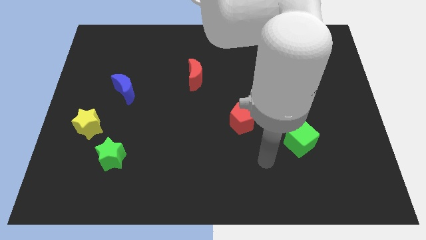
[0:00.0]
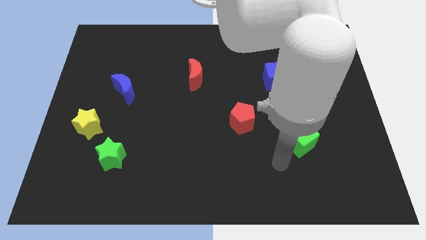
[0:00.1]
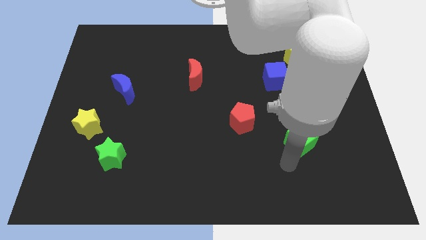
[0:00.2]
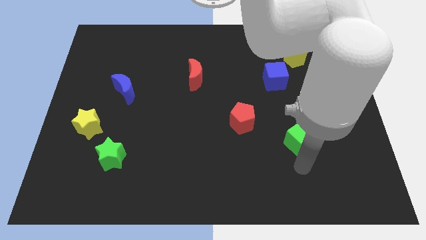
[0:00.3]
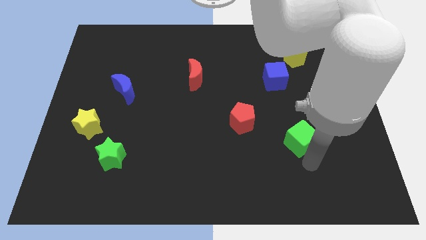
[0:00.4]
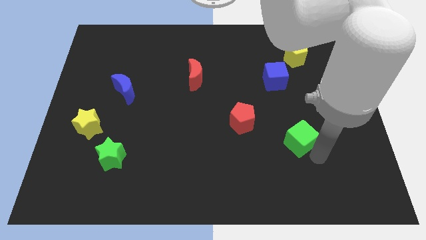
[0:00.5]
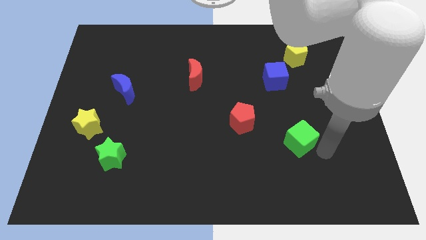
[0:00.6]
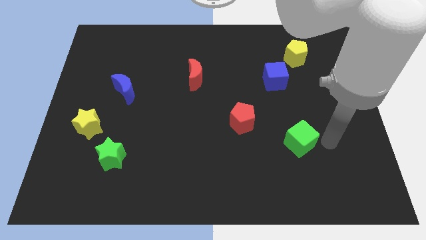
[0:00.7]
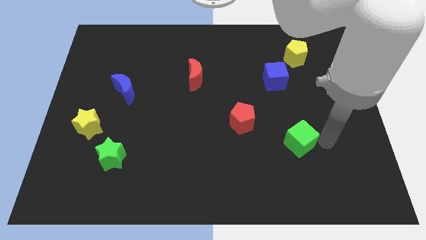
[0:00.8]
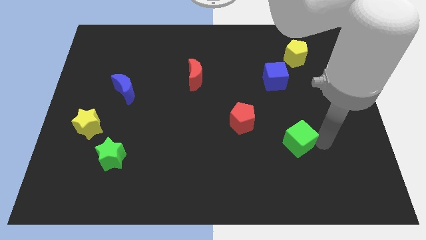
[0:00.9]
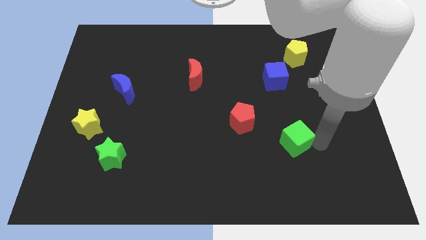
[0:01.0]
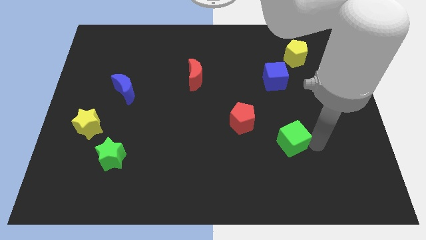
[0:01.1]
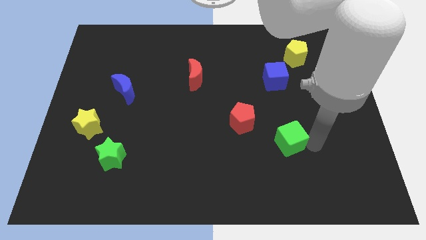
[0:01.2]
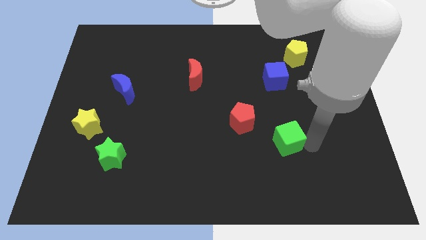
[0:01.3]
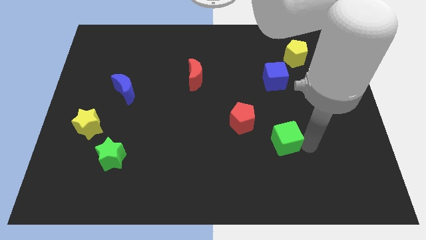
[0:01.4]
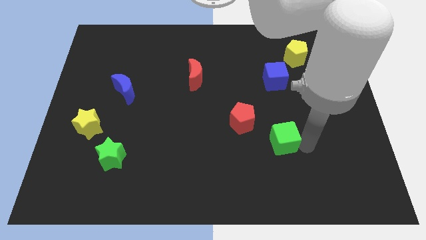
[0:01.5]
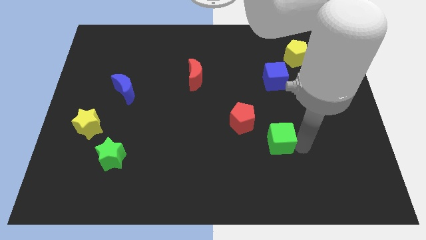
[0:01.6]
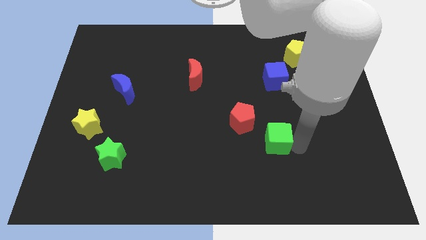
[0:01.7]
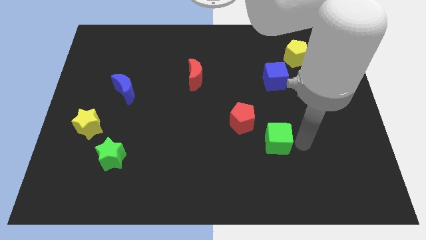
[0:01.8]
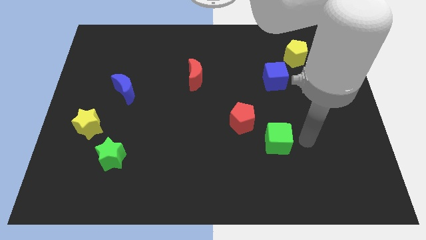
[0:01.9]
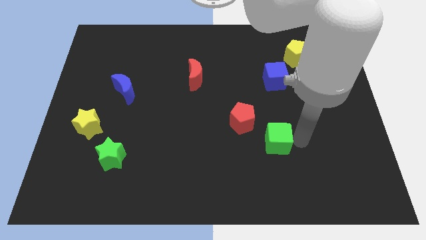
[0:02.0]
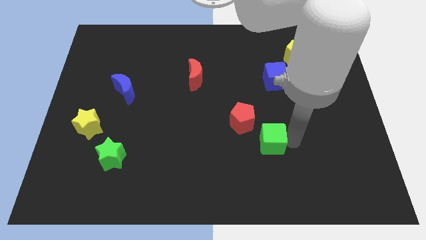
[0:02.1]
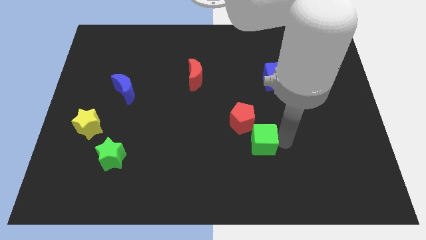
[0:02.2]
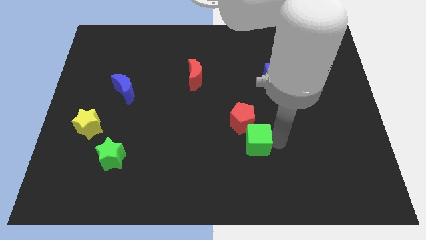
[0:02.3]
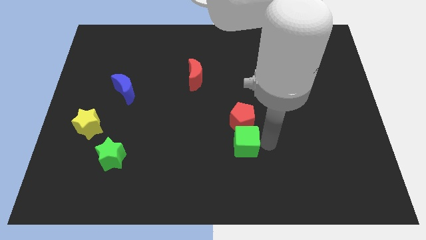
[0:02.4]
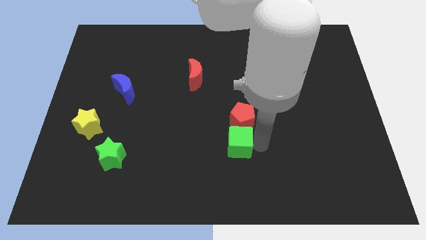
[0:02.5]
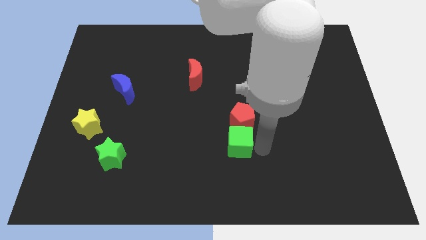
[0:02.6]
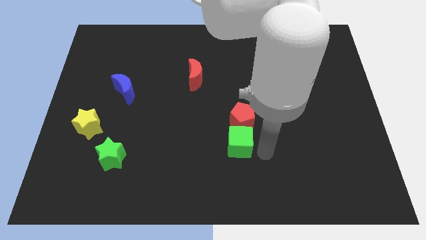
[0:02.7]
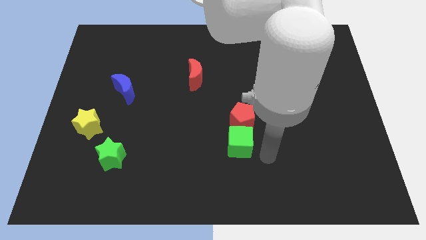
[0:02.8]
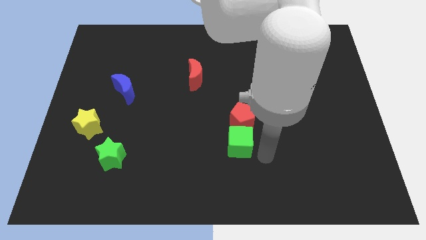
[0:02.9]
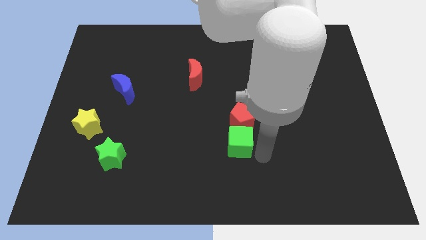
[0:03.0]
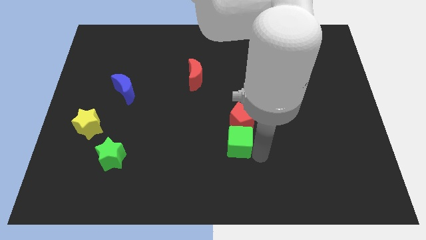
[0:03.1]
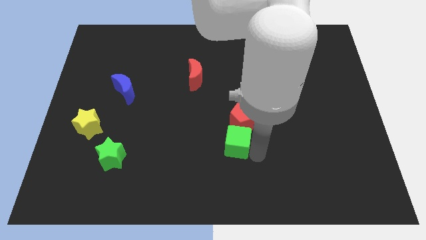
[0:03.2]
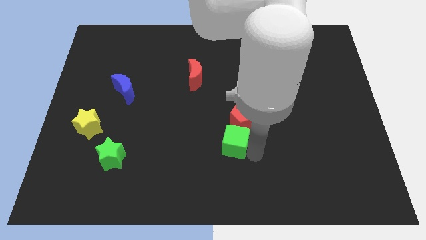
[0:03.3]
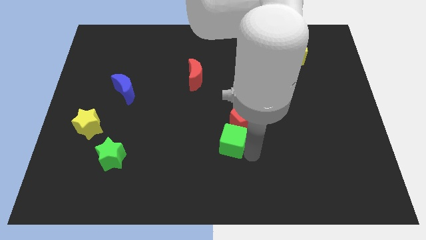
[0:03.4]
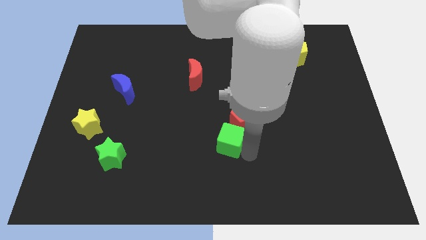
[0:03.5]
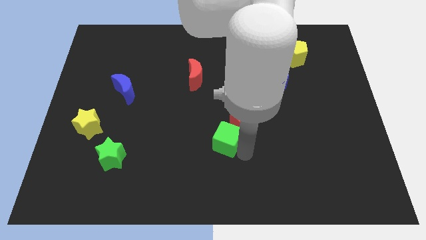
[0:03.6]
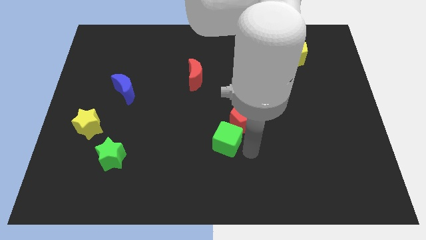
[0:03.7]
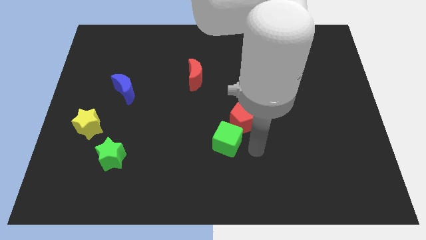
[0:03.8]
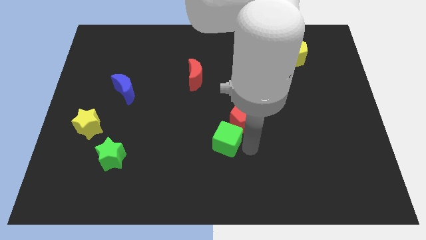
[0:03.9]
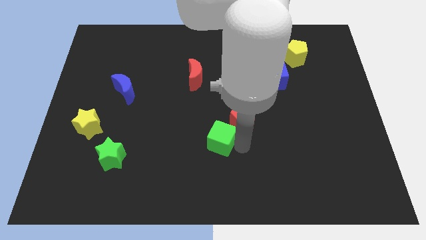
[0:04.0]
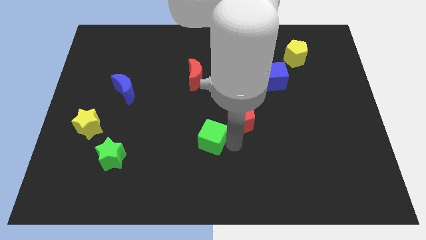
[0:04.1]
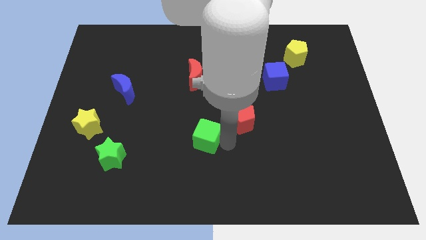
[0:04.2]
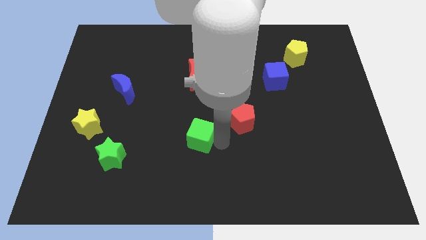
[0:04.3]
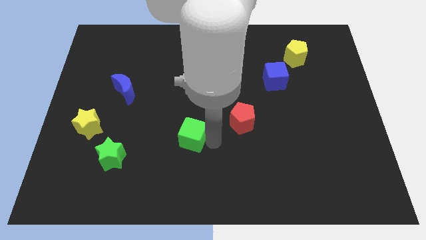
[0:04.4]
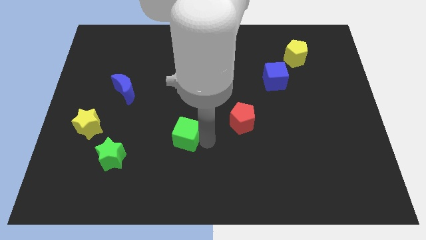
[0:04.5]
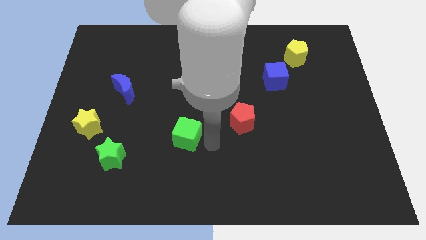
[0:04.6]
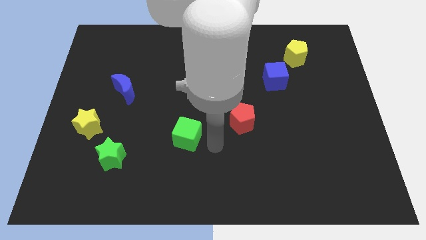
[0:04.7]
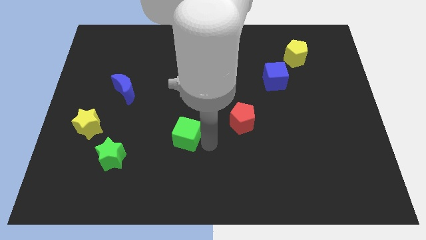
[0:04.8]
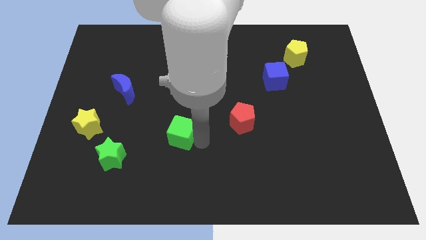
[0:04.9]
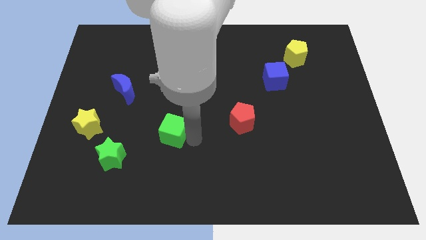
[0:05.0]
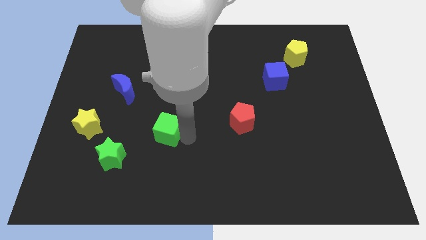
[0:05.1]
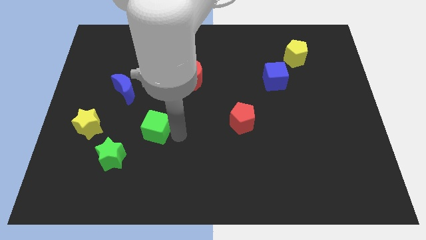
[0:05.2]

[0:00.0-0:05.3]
put the green cube to the right side of the yellow star

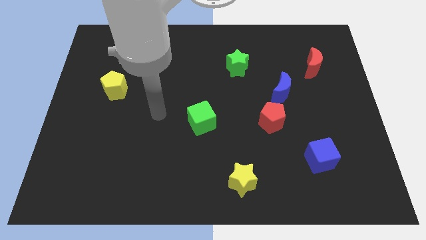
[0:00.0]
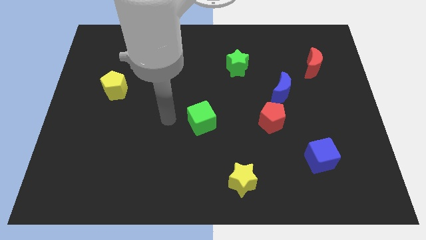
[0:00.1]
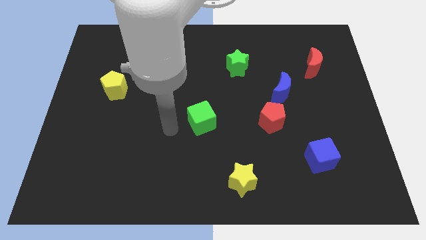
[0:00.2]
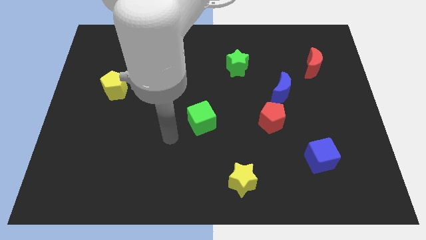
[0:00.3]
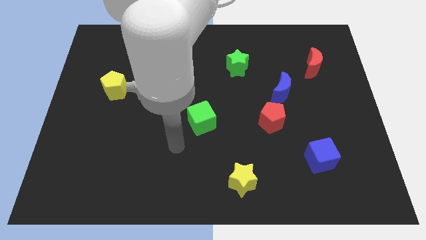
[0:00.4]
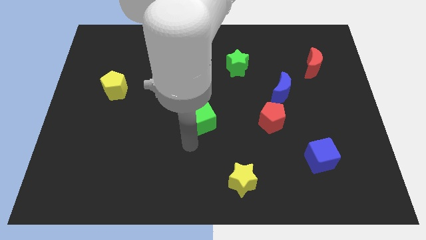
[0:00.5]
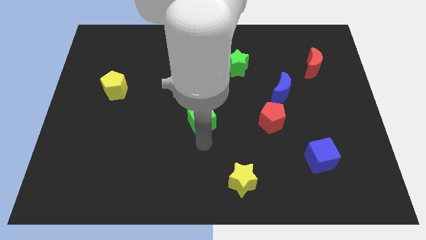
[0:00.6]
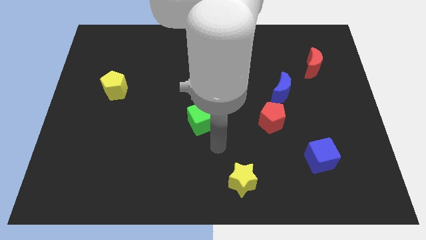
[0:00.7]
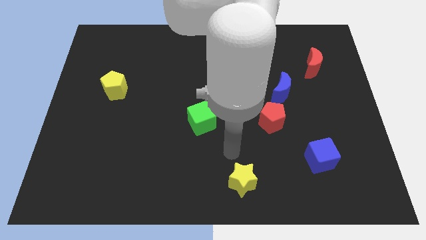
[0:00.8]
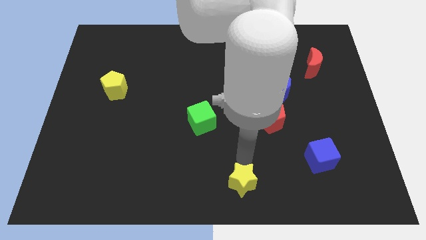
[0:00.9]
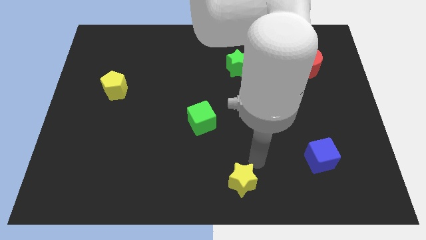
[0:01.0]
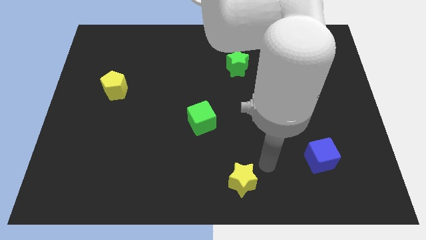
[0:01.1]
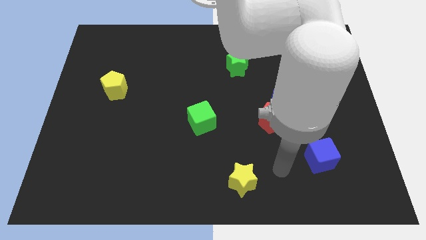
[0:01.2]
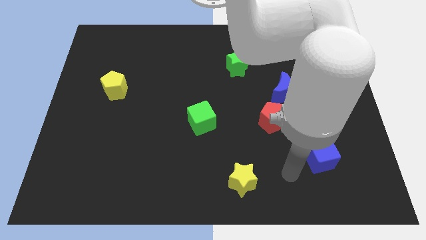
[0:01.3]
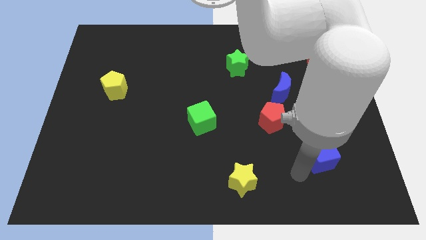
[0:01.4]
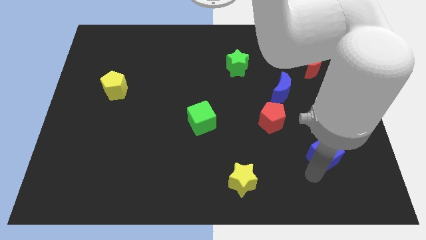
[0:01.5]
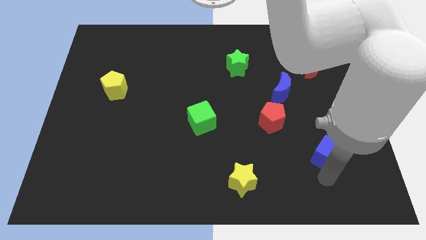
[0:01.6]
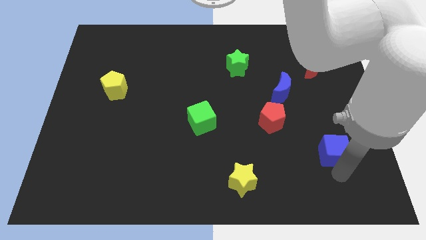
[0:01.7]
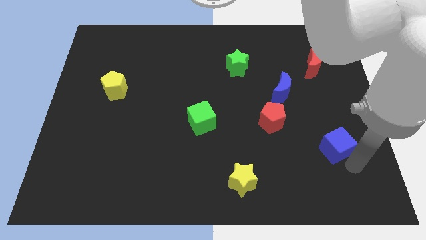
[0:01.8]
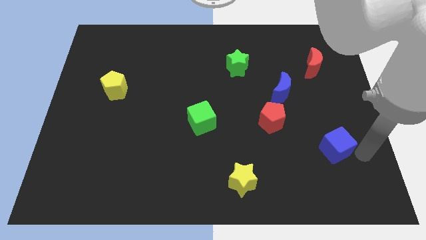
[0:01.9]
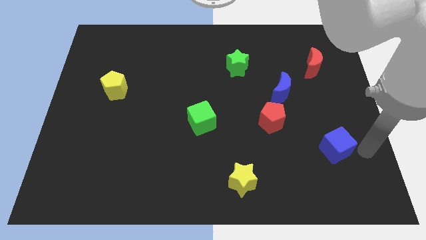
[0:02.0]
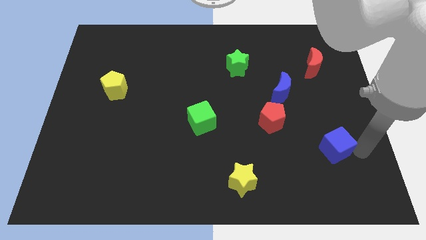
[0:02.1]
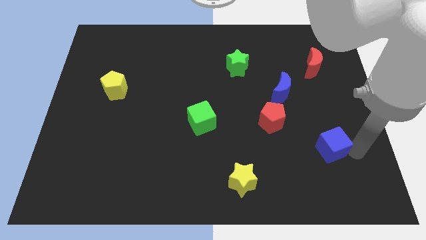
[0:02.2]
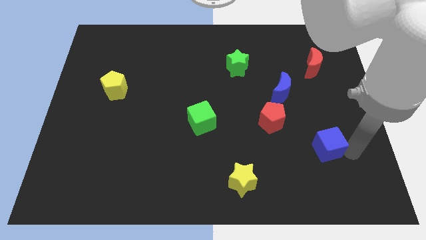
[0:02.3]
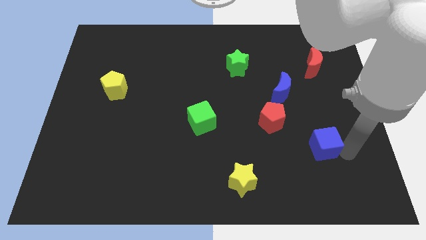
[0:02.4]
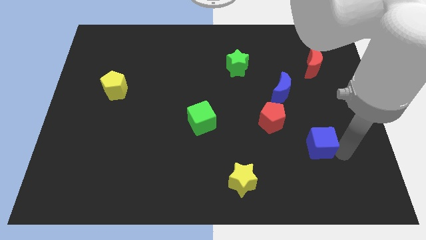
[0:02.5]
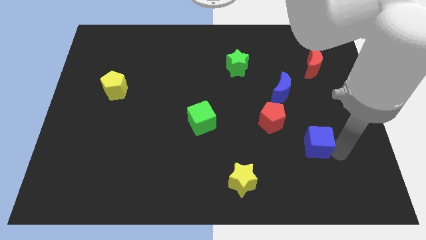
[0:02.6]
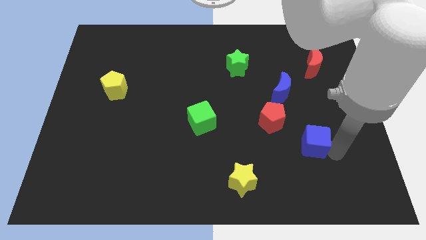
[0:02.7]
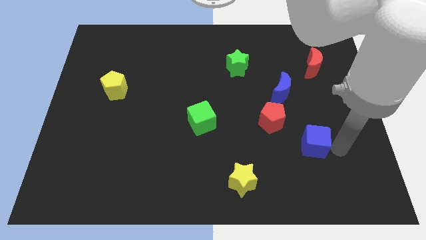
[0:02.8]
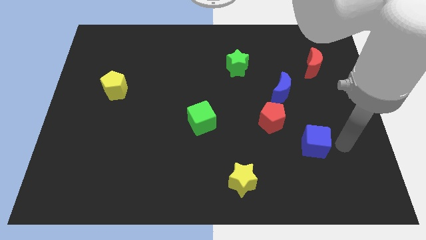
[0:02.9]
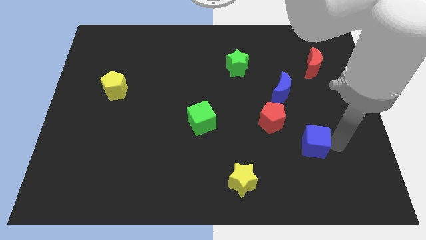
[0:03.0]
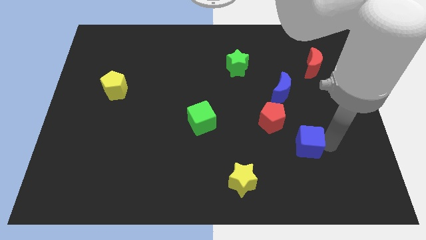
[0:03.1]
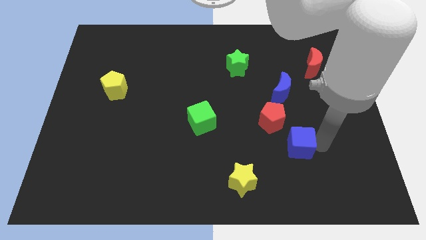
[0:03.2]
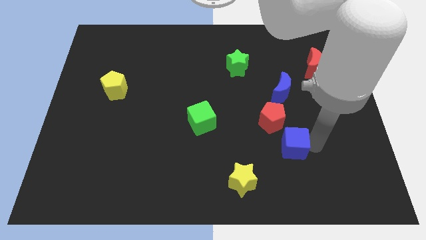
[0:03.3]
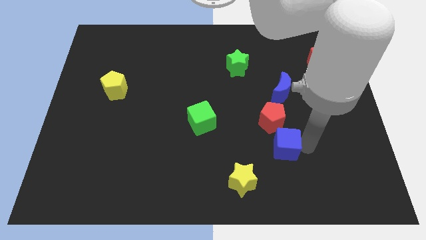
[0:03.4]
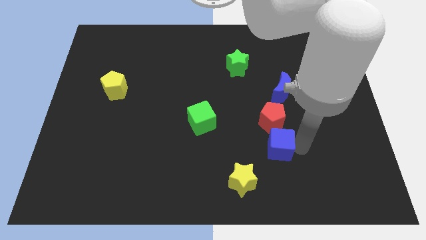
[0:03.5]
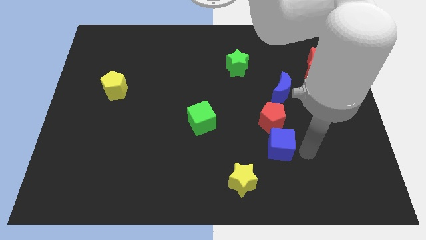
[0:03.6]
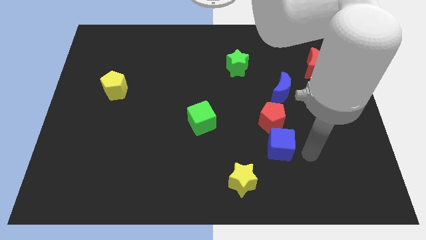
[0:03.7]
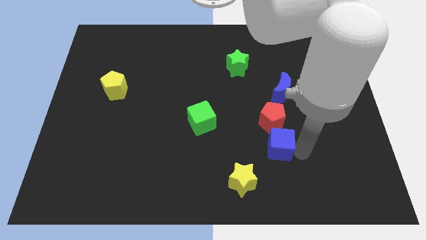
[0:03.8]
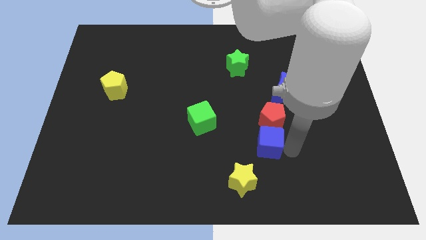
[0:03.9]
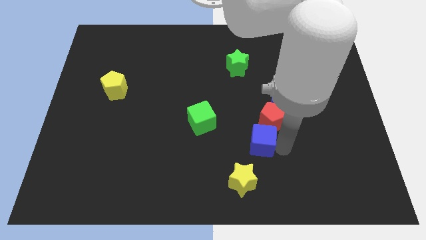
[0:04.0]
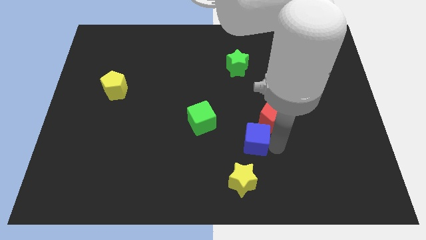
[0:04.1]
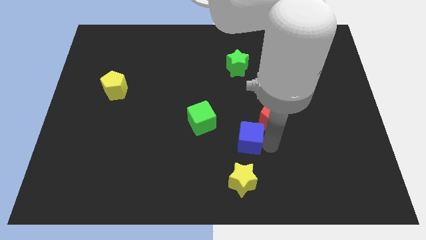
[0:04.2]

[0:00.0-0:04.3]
push the blue cube diagonally down and to the right of the green cube
